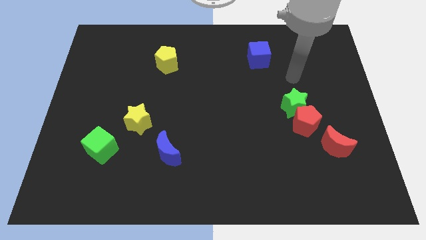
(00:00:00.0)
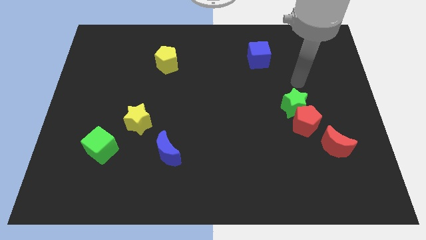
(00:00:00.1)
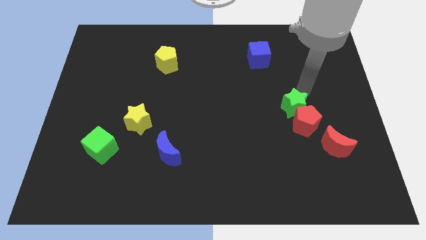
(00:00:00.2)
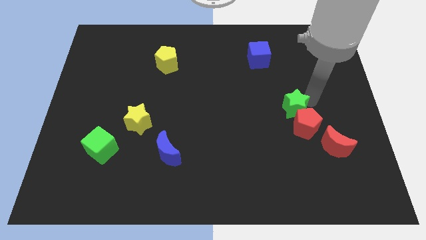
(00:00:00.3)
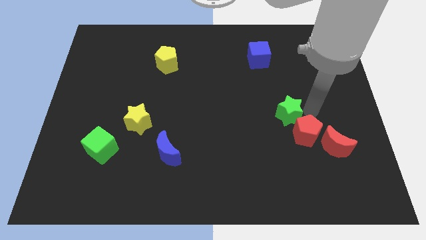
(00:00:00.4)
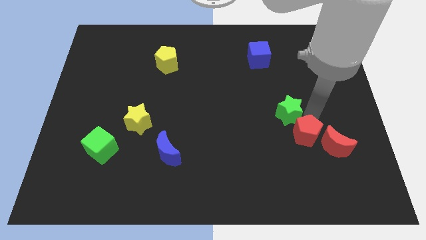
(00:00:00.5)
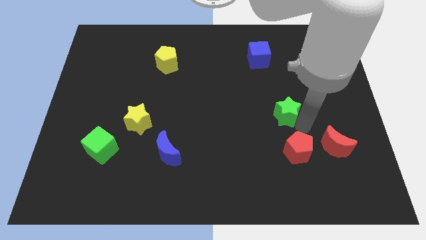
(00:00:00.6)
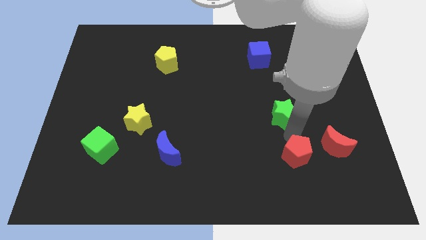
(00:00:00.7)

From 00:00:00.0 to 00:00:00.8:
move the green star away from the red pentagon

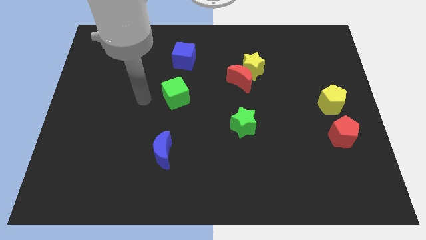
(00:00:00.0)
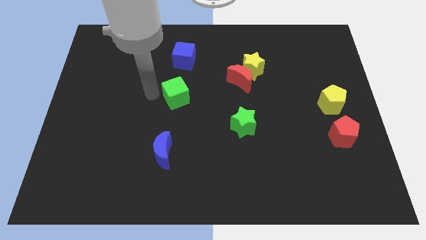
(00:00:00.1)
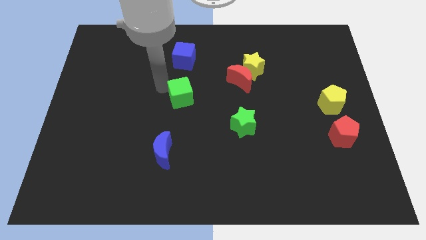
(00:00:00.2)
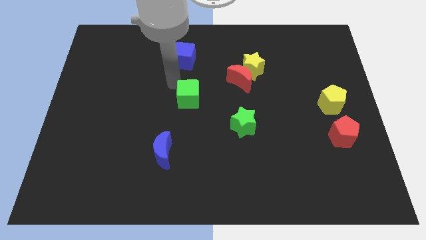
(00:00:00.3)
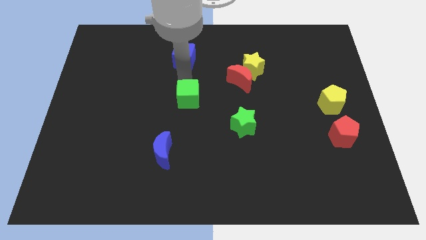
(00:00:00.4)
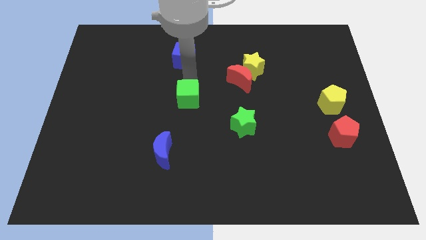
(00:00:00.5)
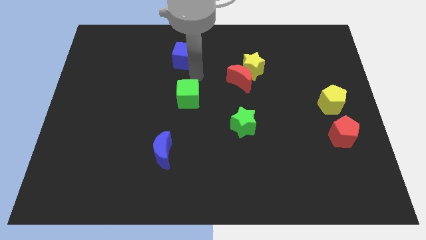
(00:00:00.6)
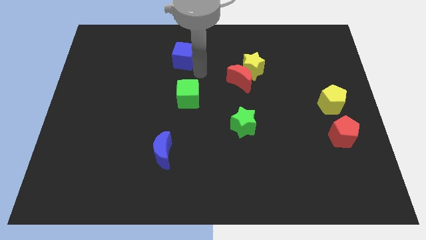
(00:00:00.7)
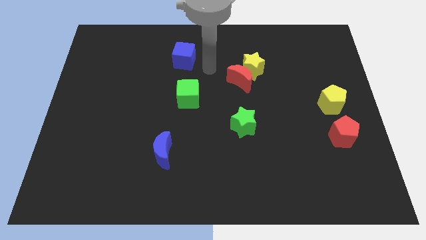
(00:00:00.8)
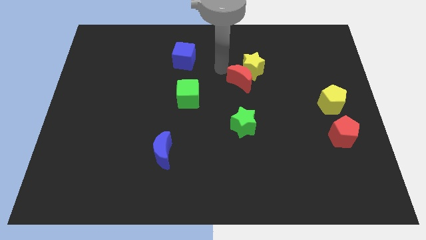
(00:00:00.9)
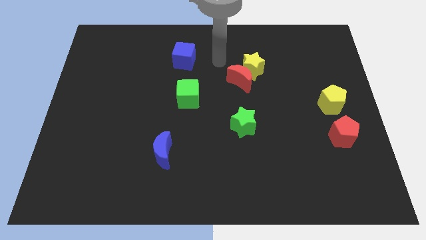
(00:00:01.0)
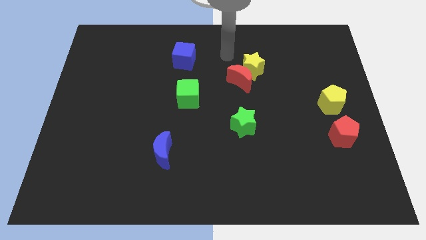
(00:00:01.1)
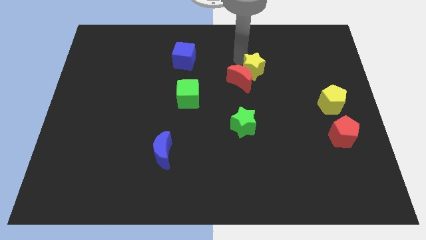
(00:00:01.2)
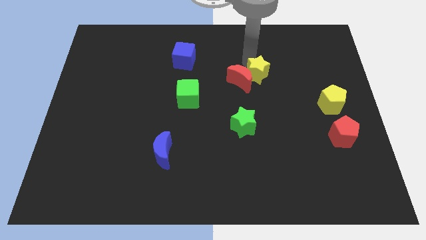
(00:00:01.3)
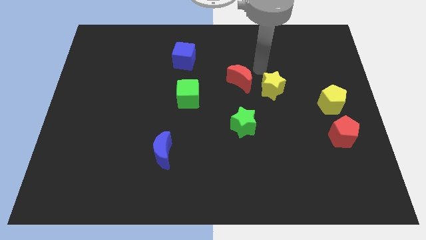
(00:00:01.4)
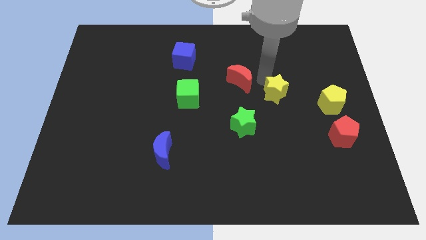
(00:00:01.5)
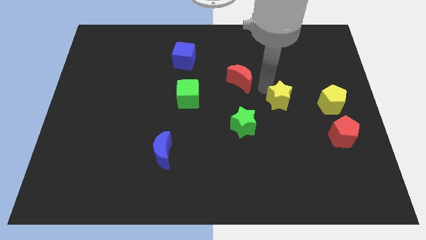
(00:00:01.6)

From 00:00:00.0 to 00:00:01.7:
move the red moon away from the yellow star

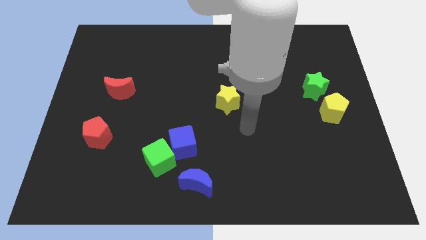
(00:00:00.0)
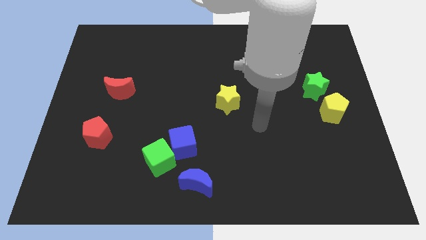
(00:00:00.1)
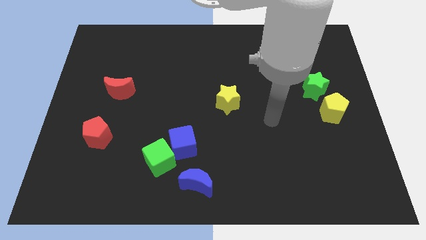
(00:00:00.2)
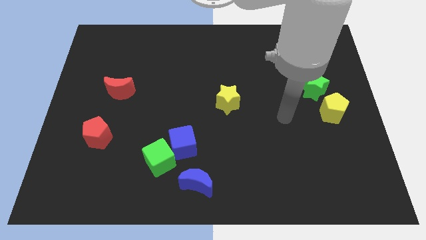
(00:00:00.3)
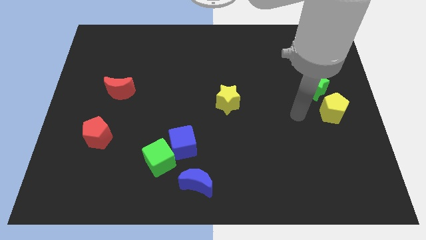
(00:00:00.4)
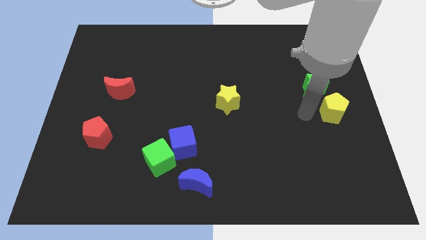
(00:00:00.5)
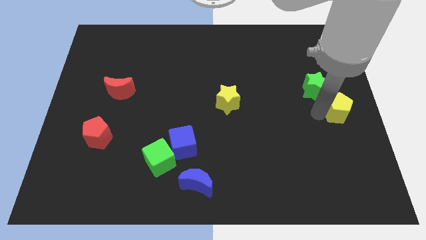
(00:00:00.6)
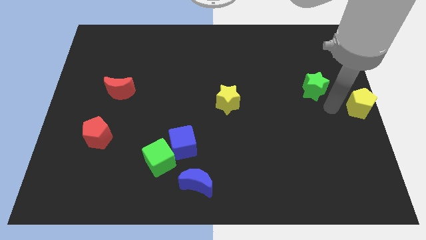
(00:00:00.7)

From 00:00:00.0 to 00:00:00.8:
pull the green star apart from the yellow pentagon

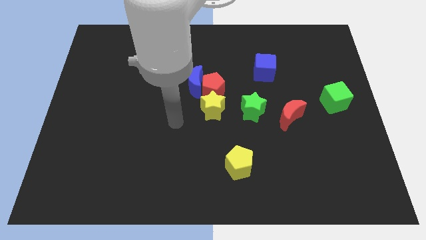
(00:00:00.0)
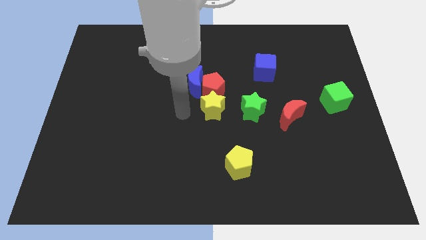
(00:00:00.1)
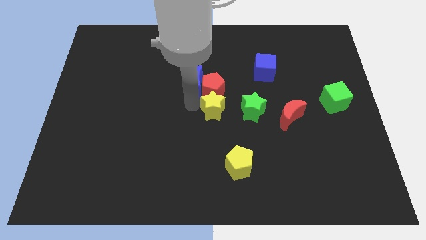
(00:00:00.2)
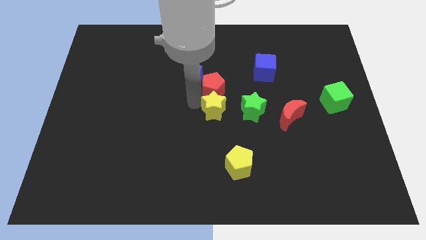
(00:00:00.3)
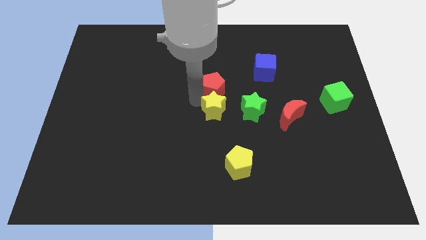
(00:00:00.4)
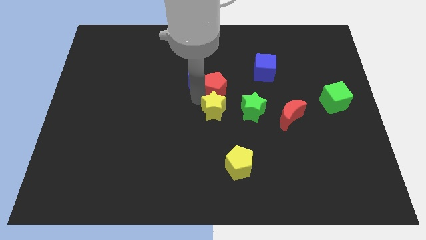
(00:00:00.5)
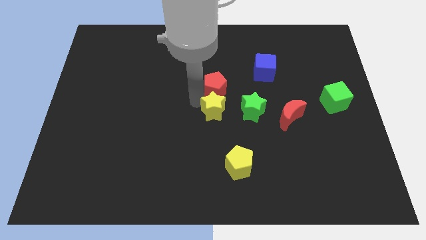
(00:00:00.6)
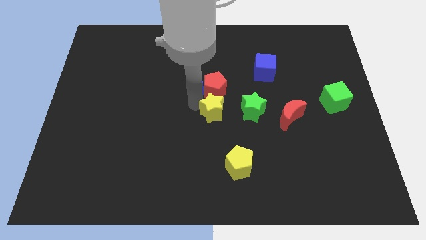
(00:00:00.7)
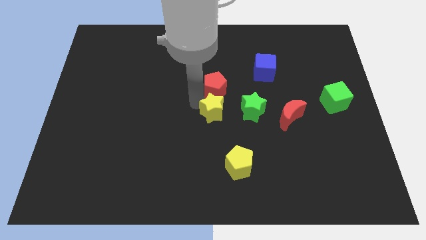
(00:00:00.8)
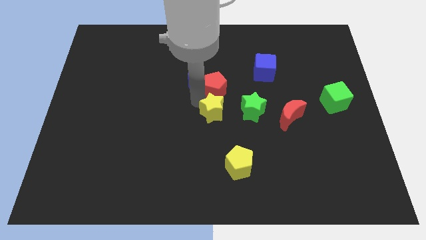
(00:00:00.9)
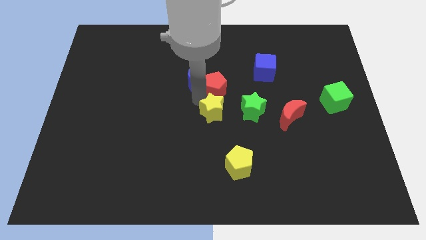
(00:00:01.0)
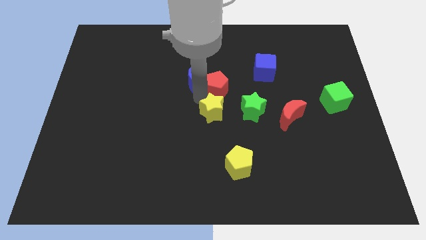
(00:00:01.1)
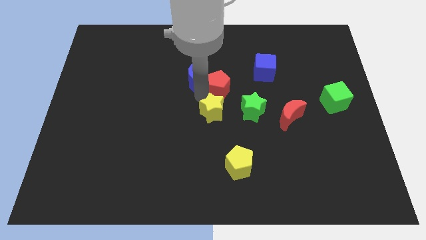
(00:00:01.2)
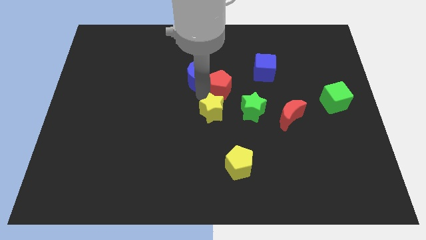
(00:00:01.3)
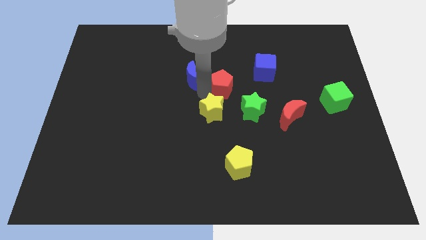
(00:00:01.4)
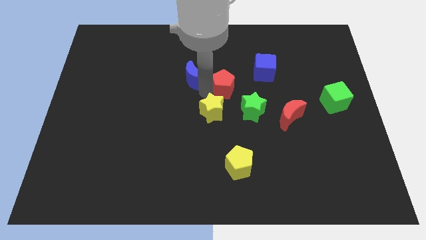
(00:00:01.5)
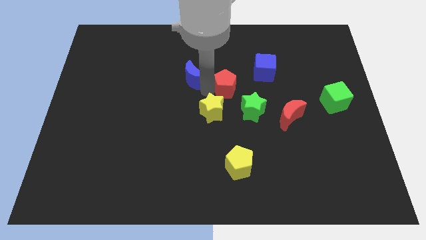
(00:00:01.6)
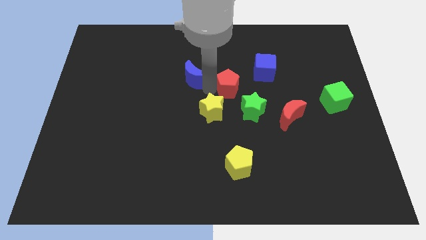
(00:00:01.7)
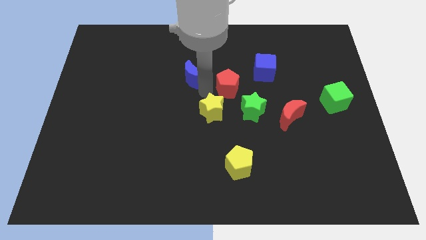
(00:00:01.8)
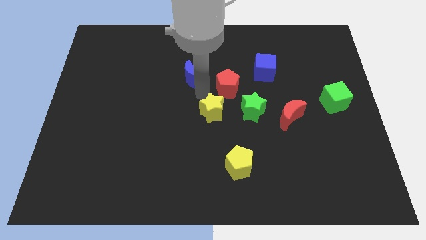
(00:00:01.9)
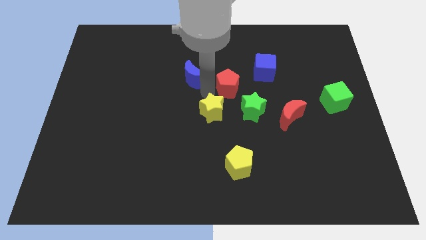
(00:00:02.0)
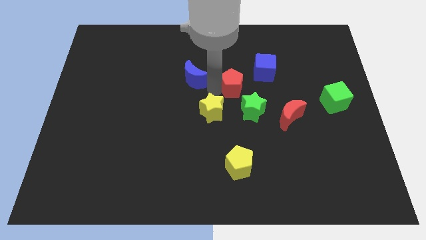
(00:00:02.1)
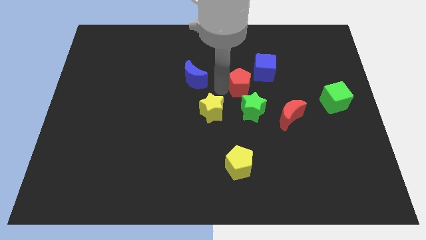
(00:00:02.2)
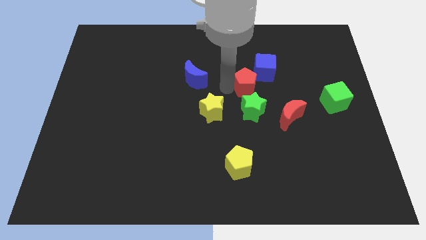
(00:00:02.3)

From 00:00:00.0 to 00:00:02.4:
separate the red pentagon from the blue moon and yellow star

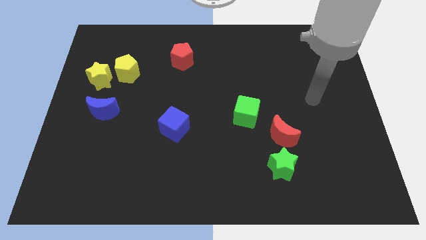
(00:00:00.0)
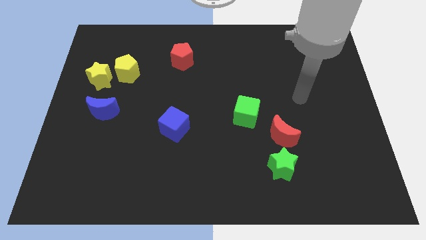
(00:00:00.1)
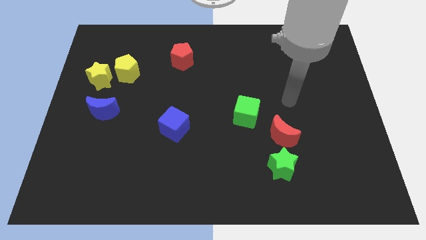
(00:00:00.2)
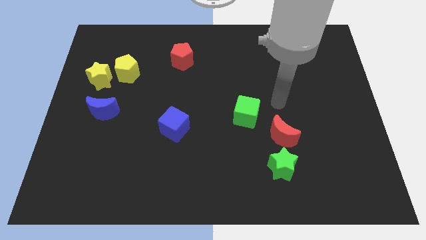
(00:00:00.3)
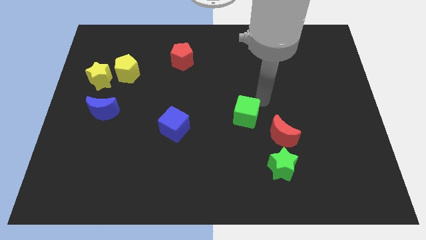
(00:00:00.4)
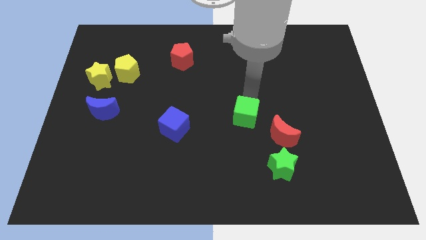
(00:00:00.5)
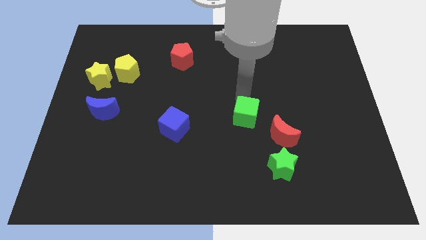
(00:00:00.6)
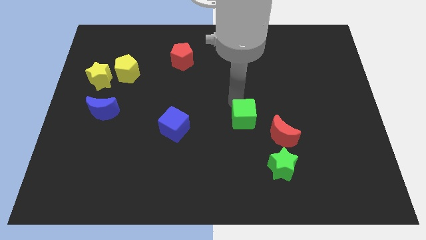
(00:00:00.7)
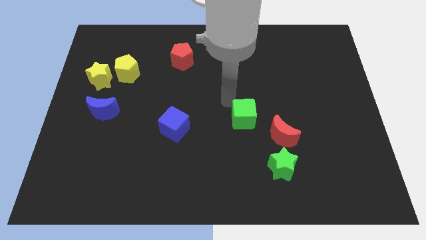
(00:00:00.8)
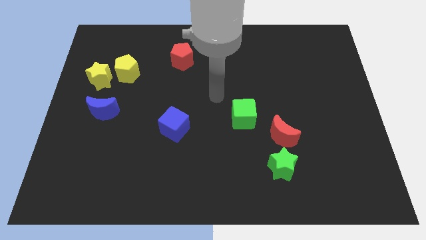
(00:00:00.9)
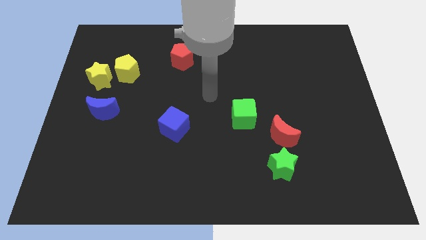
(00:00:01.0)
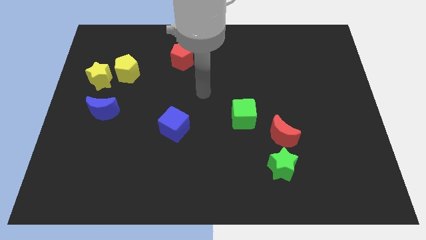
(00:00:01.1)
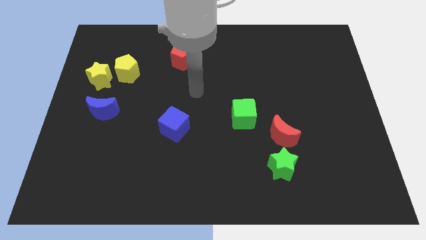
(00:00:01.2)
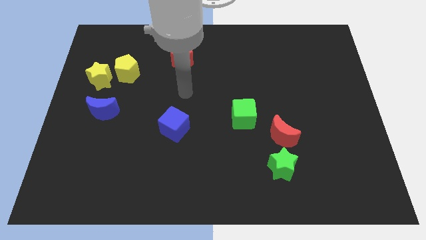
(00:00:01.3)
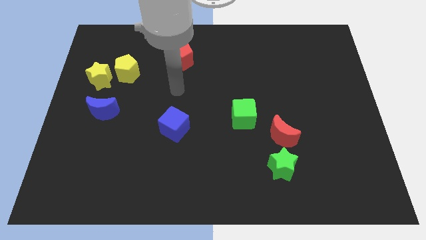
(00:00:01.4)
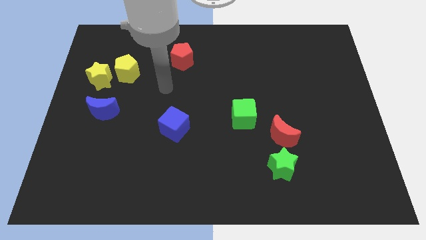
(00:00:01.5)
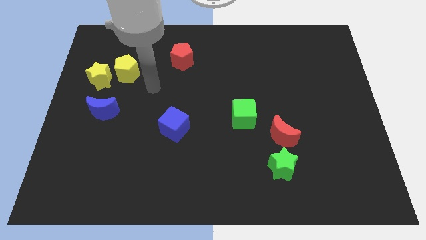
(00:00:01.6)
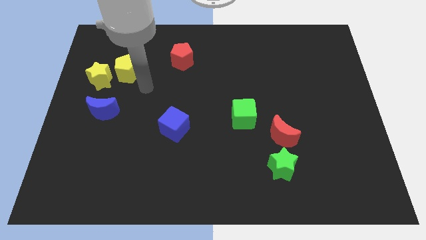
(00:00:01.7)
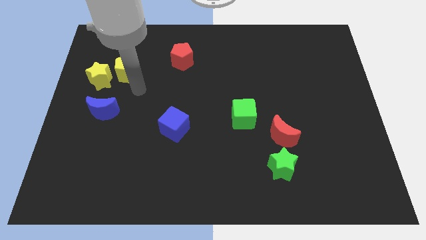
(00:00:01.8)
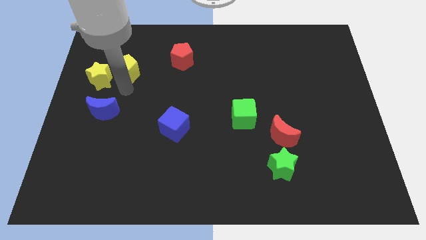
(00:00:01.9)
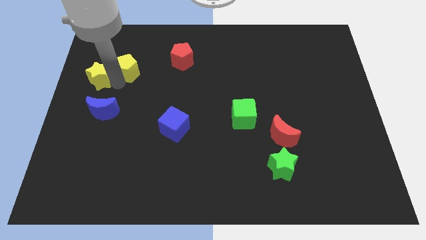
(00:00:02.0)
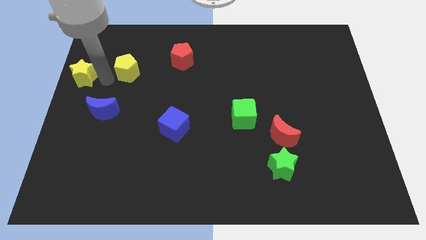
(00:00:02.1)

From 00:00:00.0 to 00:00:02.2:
move the yellow pentagon away from the yellow star

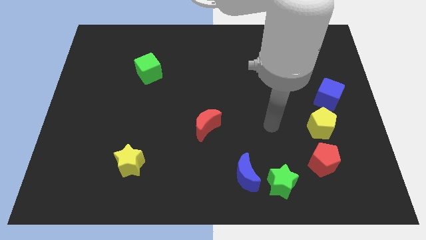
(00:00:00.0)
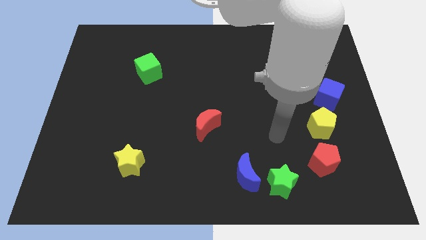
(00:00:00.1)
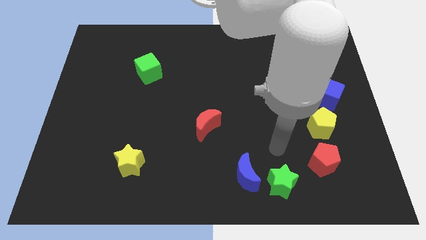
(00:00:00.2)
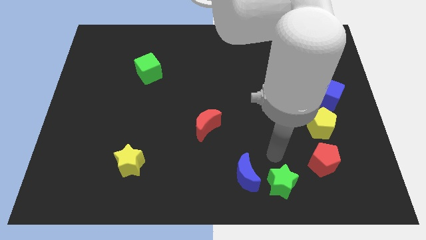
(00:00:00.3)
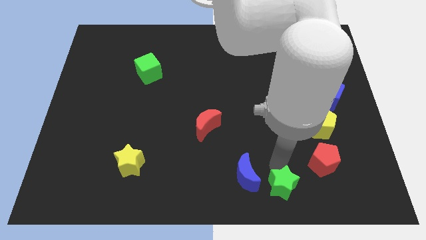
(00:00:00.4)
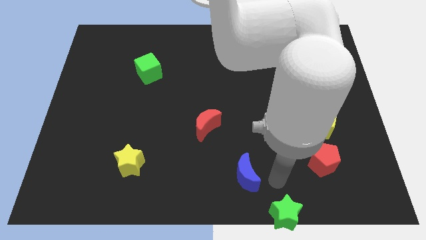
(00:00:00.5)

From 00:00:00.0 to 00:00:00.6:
separate the blue moon from the green star

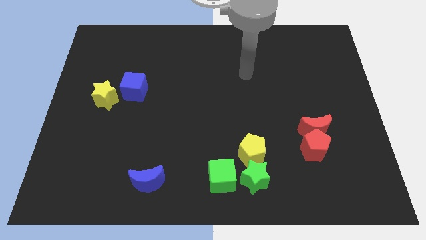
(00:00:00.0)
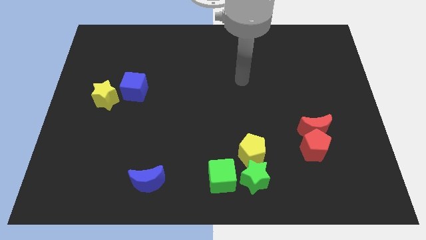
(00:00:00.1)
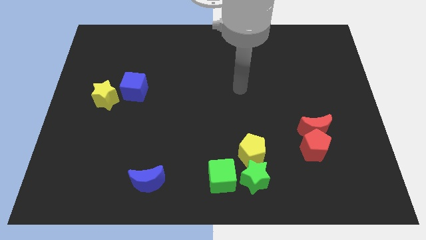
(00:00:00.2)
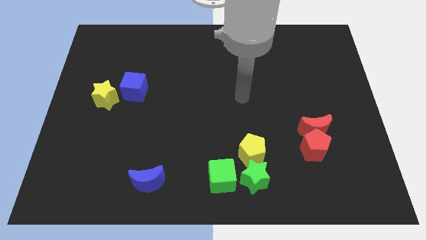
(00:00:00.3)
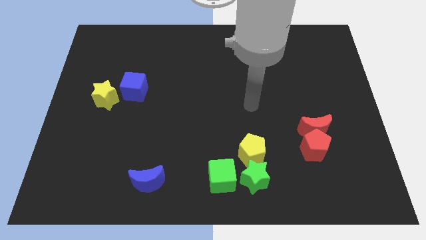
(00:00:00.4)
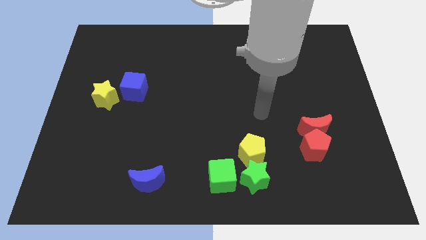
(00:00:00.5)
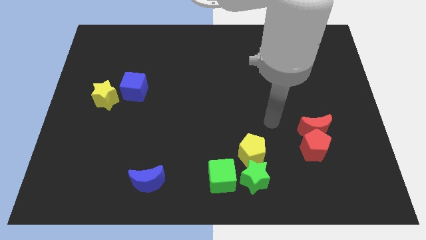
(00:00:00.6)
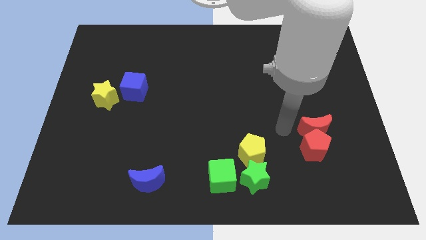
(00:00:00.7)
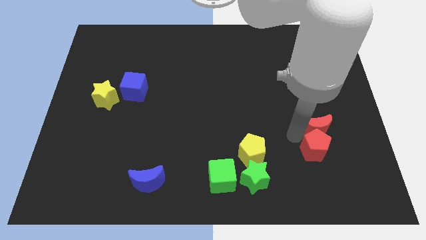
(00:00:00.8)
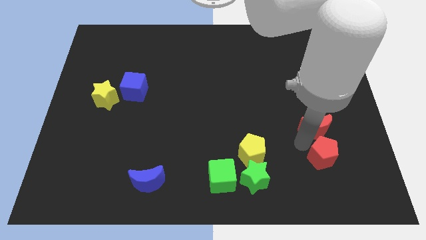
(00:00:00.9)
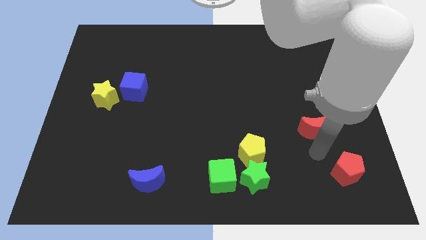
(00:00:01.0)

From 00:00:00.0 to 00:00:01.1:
separate the red moon from the red pentagon
